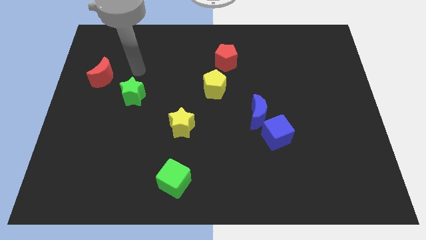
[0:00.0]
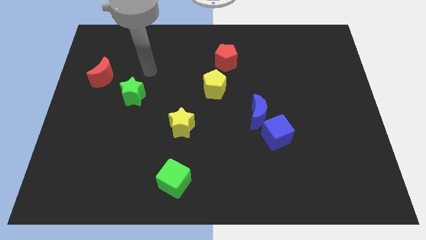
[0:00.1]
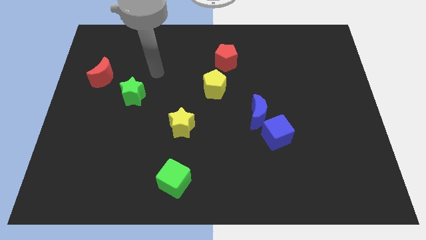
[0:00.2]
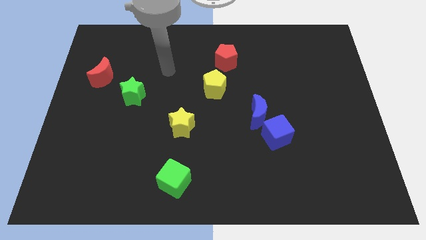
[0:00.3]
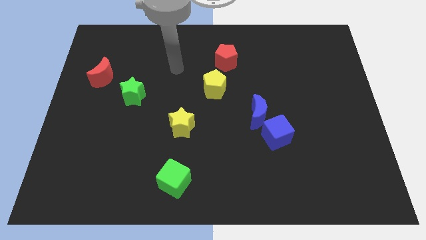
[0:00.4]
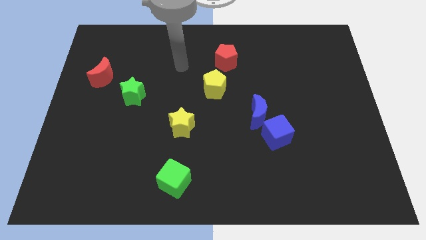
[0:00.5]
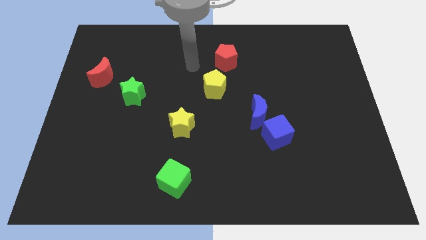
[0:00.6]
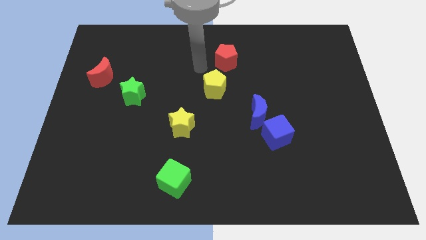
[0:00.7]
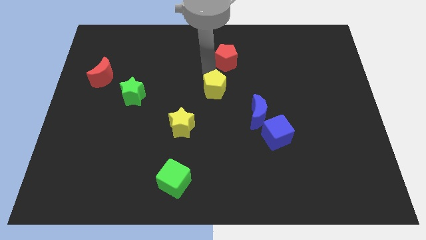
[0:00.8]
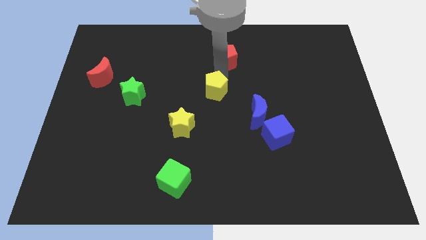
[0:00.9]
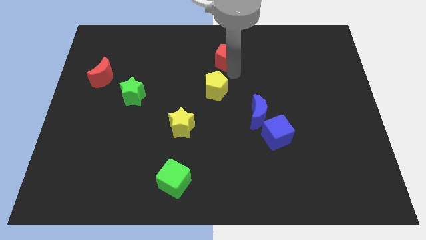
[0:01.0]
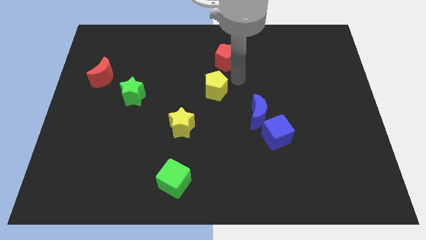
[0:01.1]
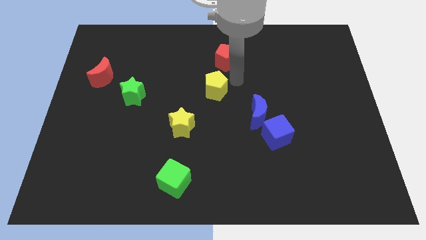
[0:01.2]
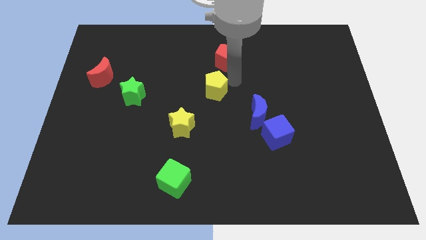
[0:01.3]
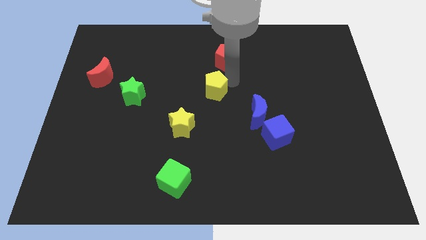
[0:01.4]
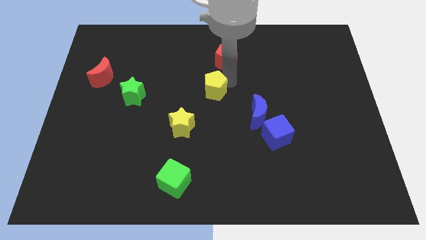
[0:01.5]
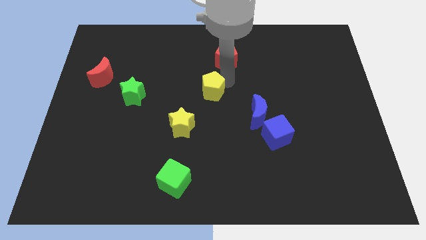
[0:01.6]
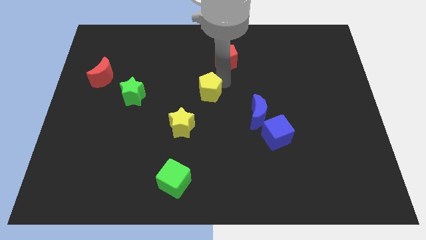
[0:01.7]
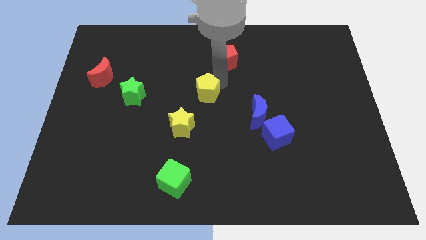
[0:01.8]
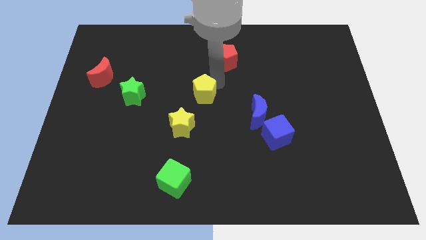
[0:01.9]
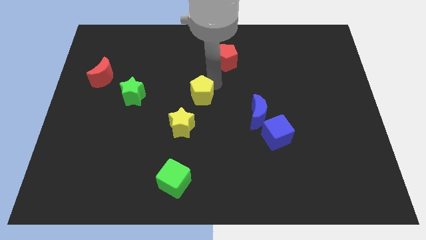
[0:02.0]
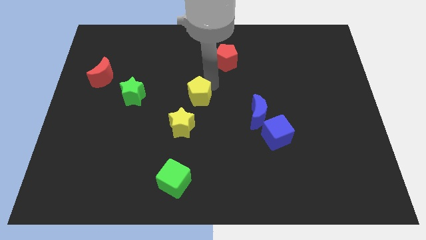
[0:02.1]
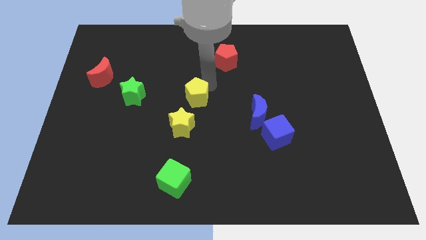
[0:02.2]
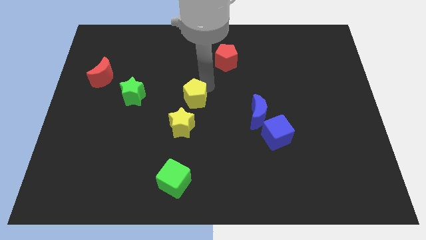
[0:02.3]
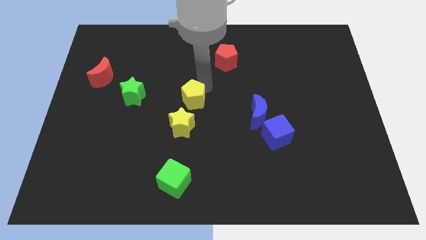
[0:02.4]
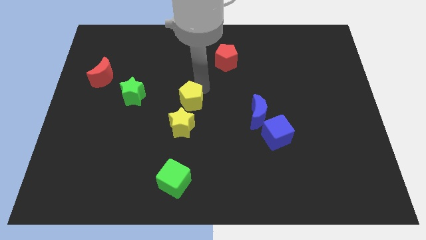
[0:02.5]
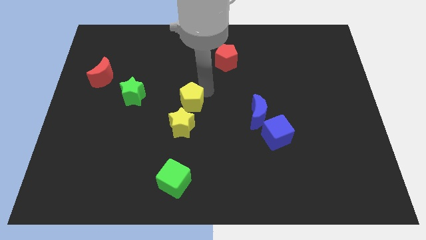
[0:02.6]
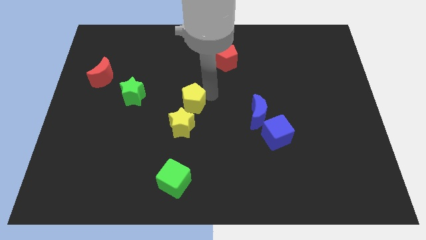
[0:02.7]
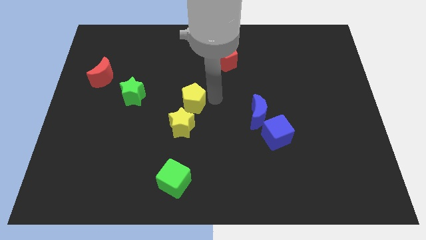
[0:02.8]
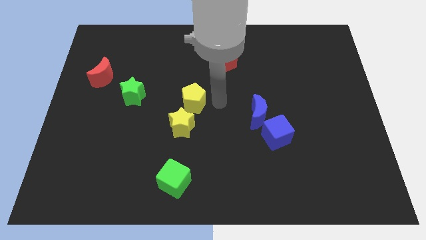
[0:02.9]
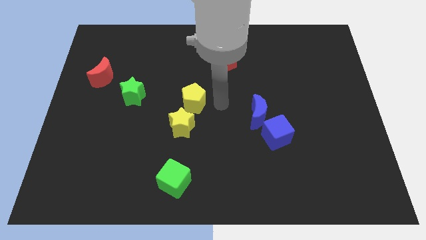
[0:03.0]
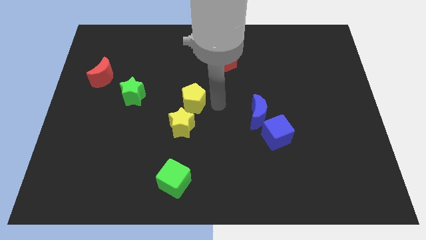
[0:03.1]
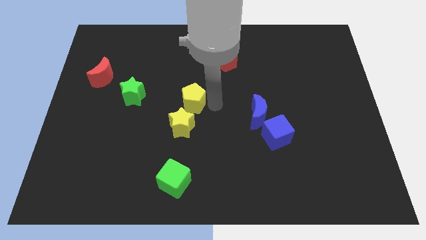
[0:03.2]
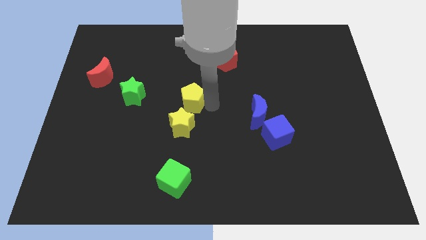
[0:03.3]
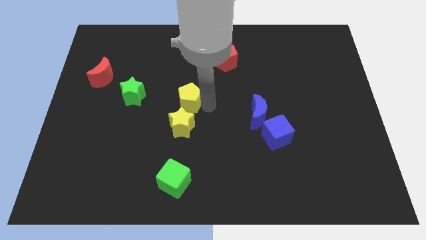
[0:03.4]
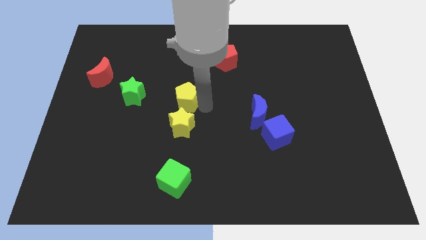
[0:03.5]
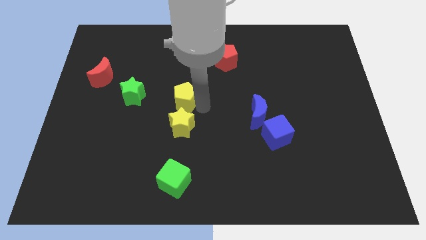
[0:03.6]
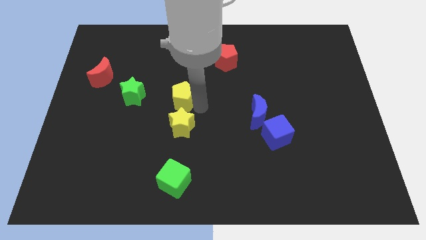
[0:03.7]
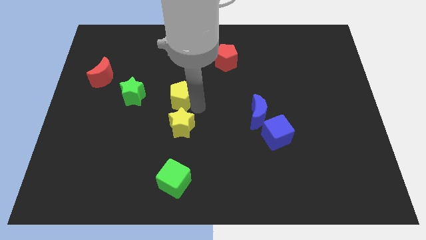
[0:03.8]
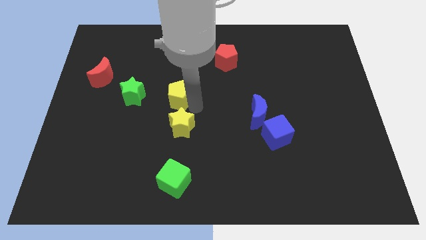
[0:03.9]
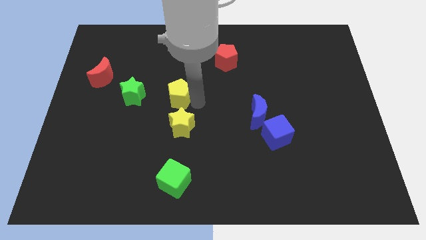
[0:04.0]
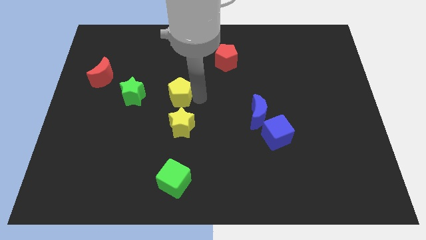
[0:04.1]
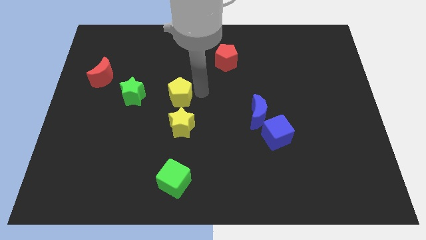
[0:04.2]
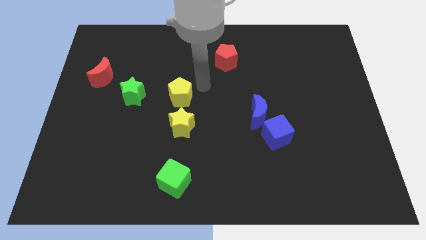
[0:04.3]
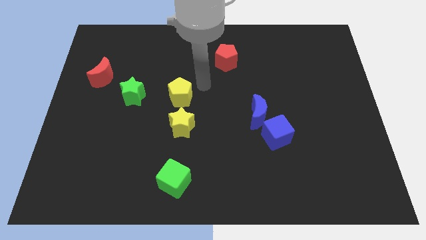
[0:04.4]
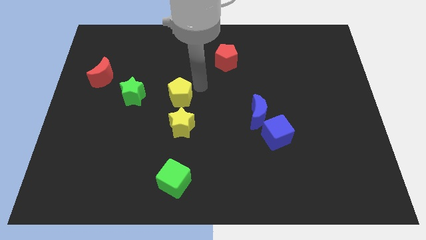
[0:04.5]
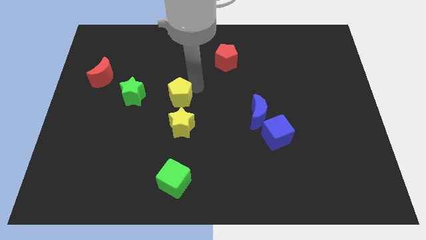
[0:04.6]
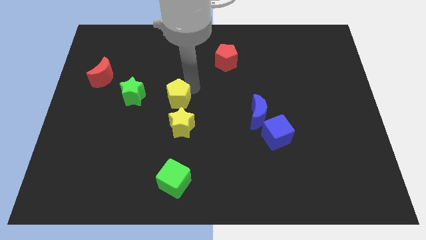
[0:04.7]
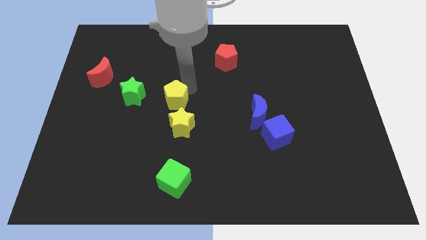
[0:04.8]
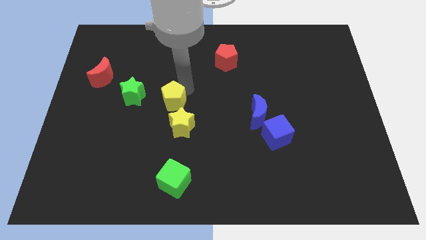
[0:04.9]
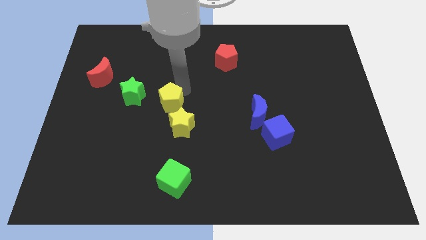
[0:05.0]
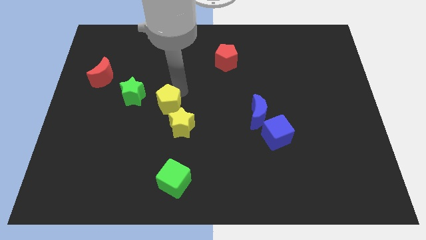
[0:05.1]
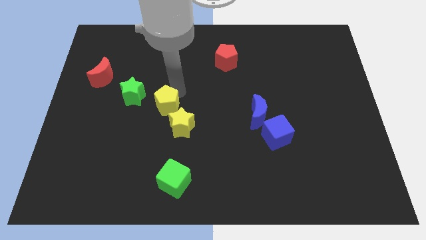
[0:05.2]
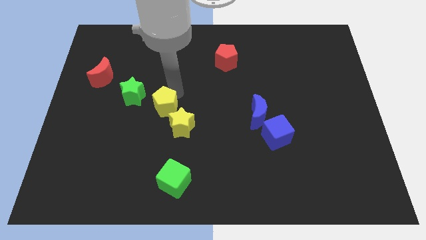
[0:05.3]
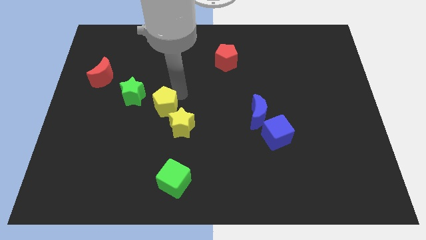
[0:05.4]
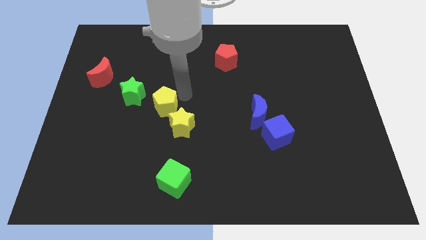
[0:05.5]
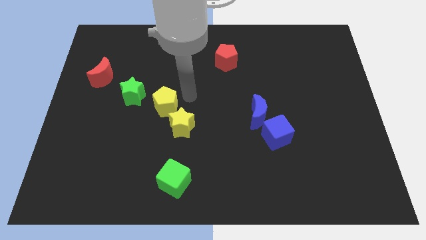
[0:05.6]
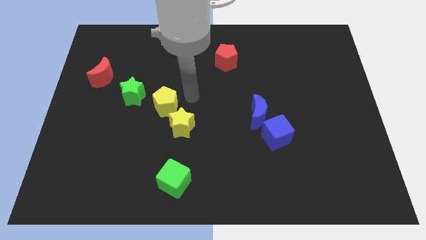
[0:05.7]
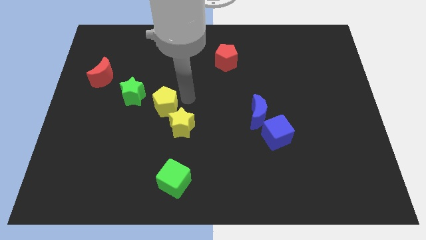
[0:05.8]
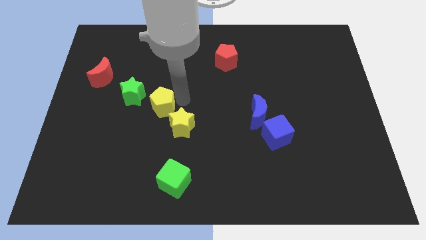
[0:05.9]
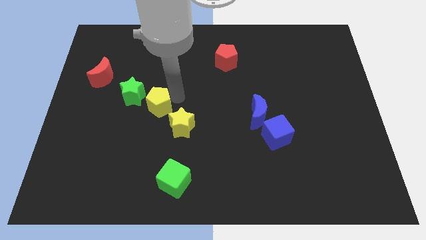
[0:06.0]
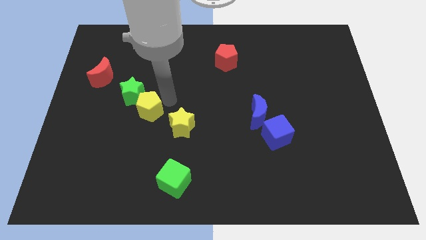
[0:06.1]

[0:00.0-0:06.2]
move the yellow pentagon below the green star
